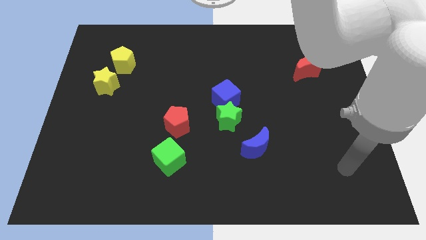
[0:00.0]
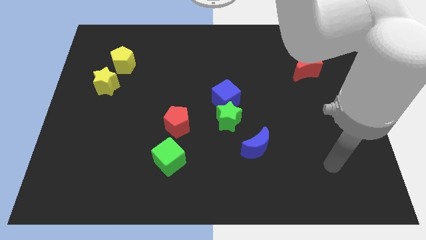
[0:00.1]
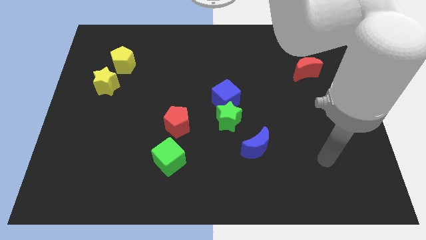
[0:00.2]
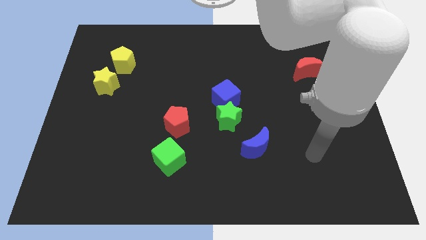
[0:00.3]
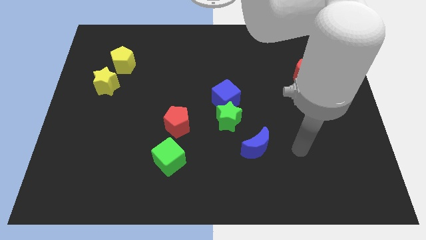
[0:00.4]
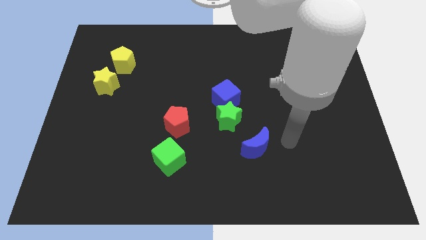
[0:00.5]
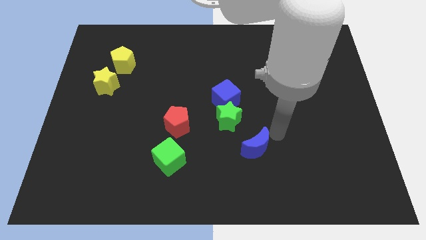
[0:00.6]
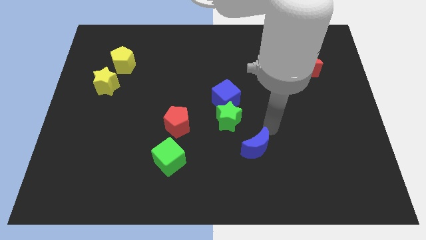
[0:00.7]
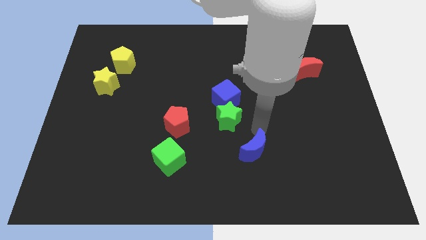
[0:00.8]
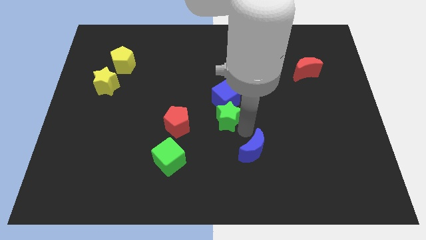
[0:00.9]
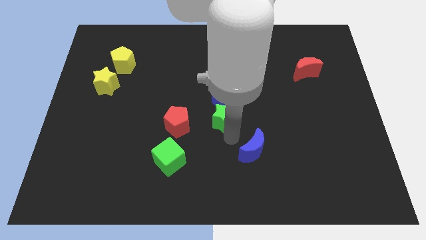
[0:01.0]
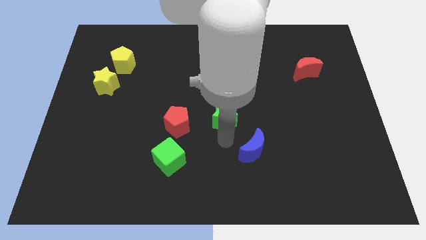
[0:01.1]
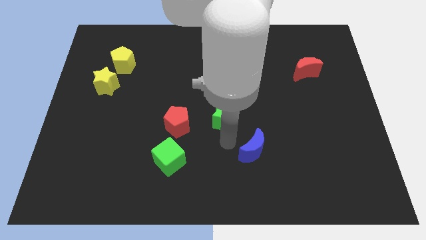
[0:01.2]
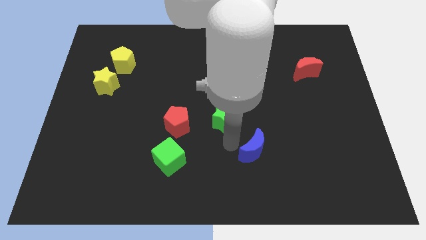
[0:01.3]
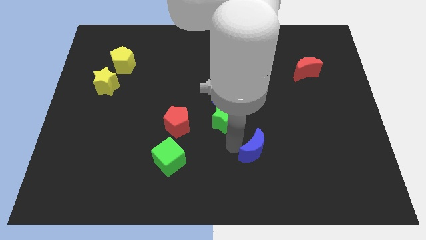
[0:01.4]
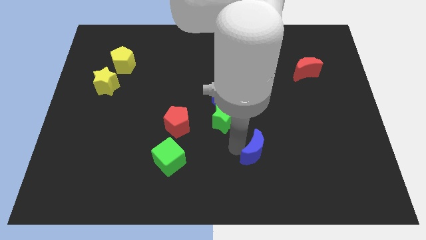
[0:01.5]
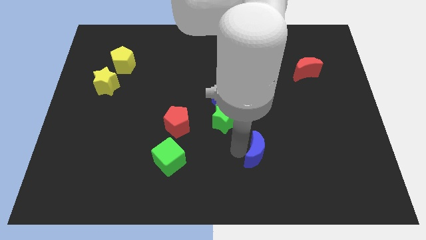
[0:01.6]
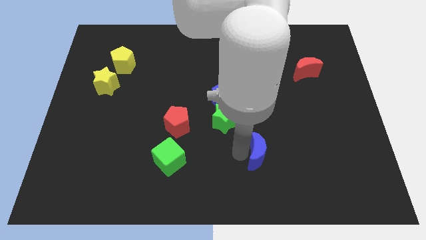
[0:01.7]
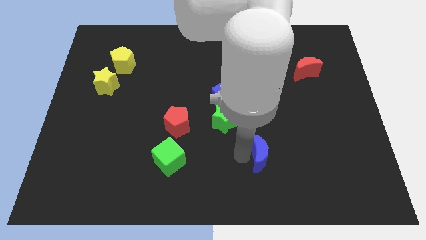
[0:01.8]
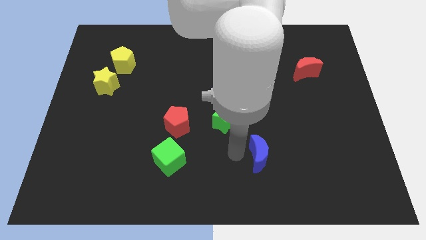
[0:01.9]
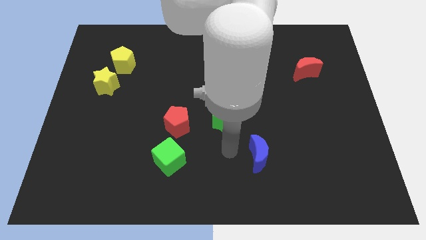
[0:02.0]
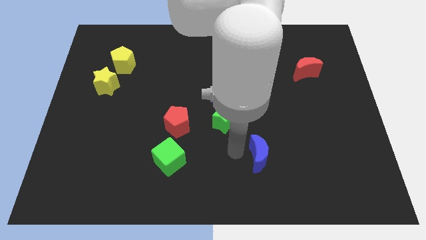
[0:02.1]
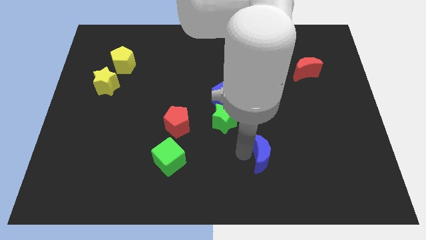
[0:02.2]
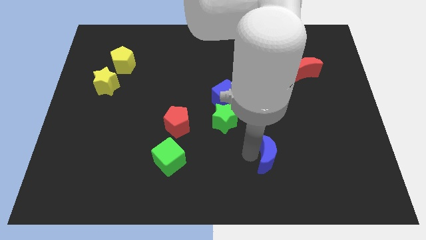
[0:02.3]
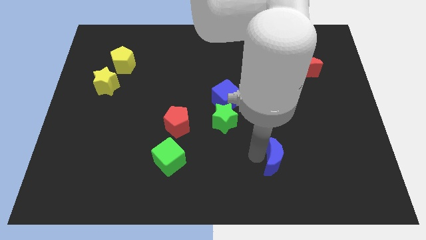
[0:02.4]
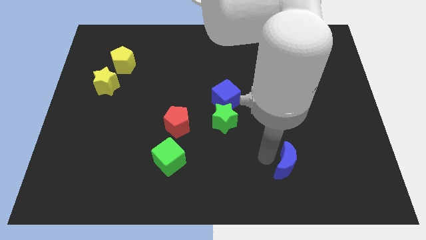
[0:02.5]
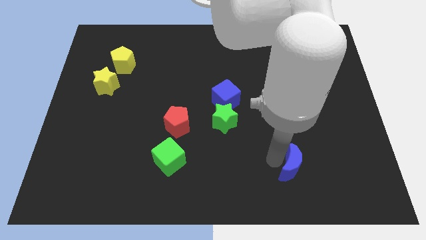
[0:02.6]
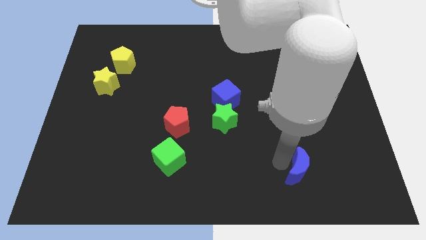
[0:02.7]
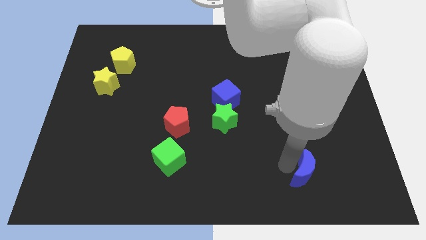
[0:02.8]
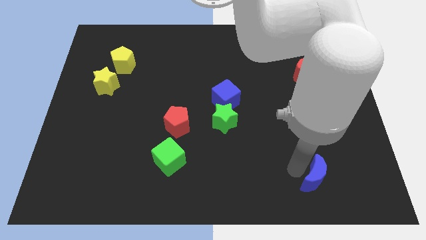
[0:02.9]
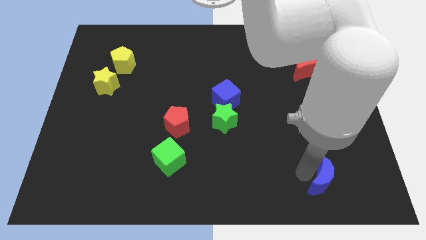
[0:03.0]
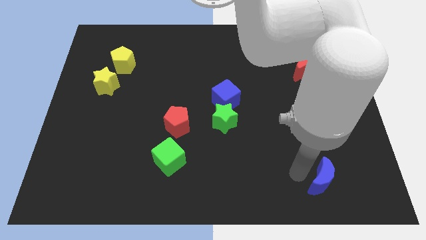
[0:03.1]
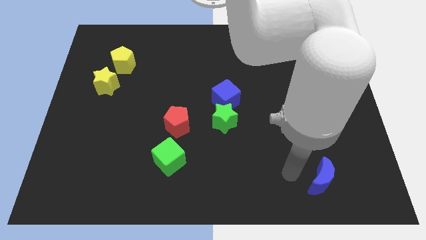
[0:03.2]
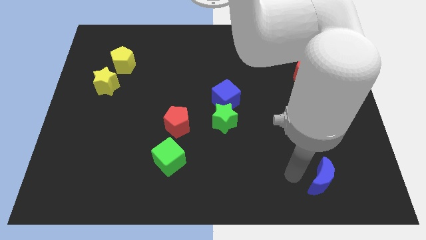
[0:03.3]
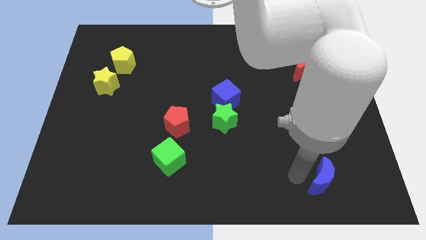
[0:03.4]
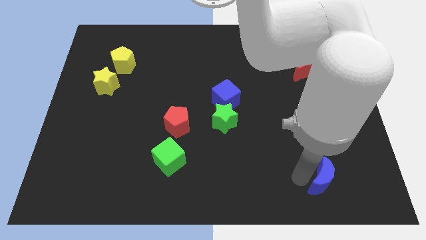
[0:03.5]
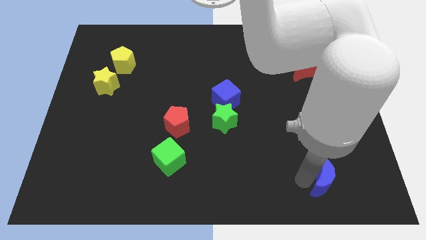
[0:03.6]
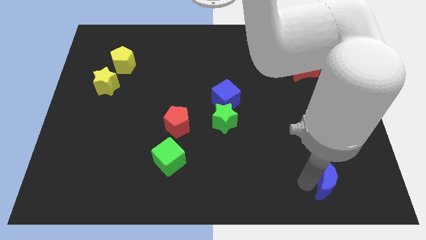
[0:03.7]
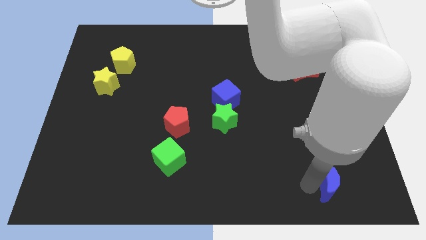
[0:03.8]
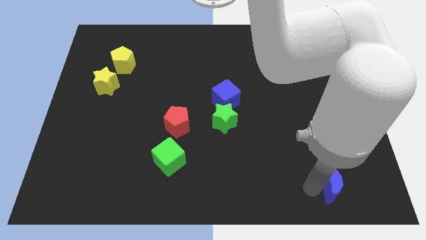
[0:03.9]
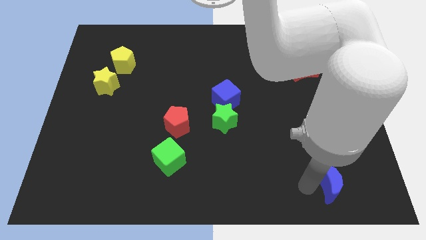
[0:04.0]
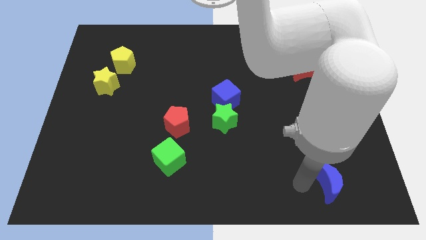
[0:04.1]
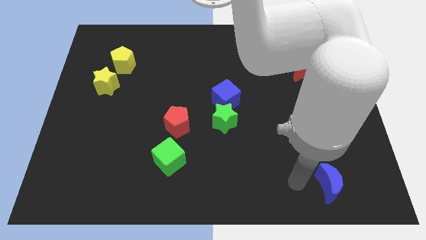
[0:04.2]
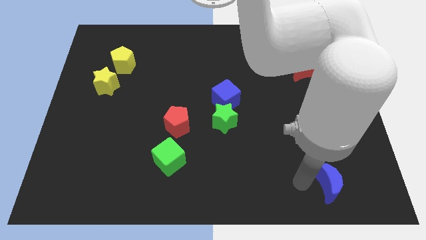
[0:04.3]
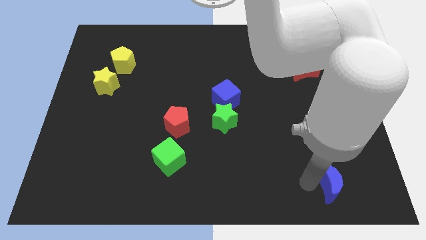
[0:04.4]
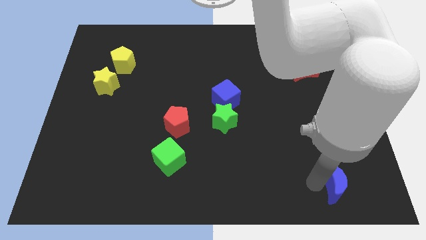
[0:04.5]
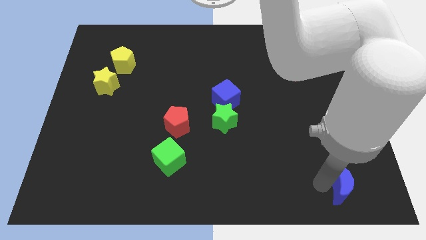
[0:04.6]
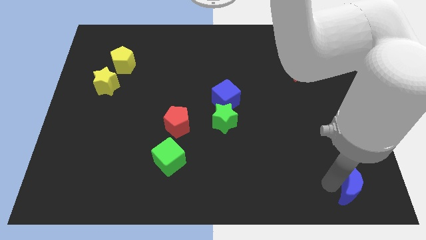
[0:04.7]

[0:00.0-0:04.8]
put the blue moon to the bottom right of the board

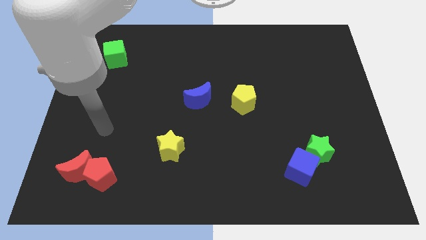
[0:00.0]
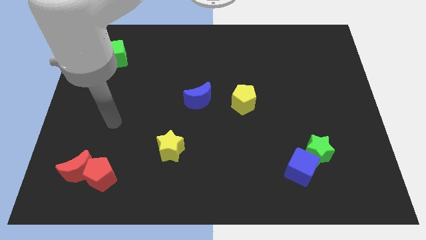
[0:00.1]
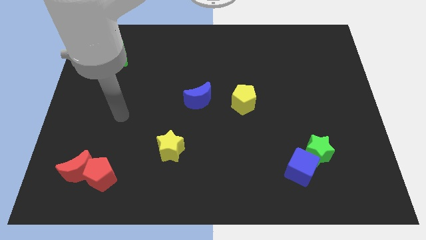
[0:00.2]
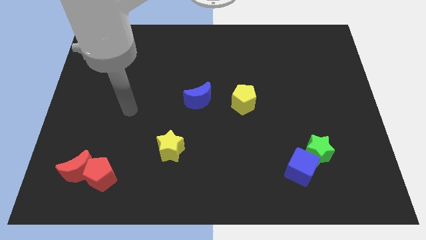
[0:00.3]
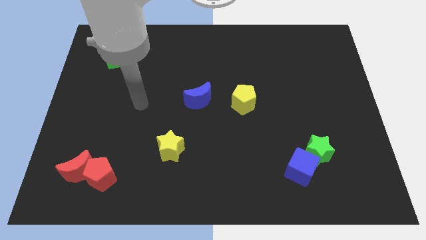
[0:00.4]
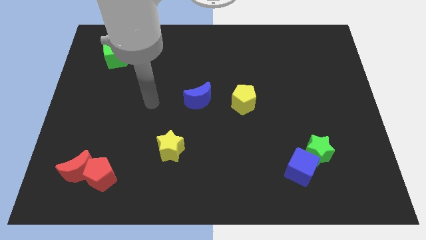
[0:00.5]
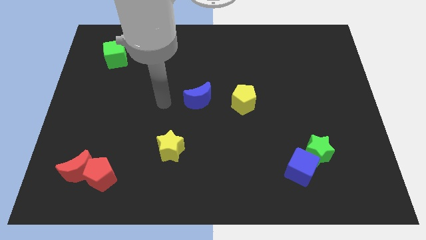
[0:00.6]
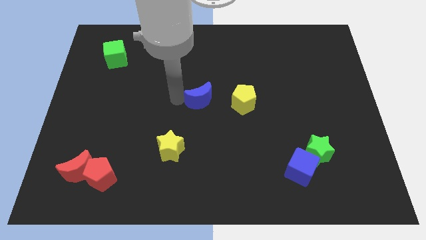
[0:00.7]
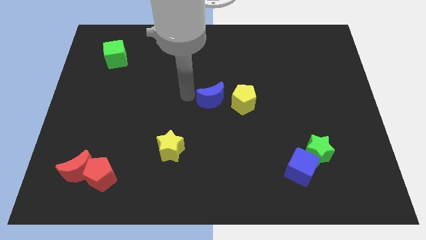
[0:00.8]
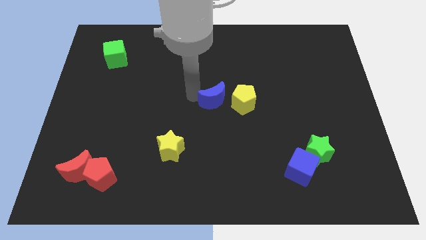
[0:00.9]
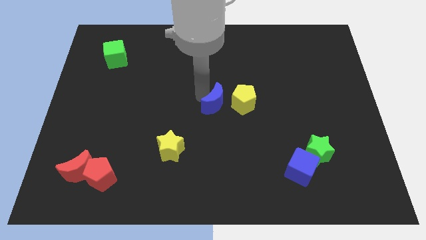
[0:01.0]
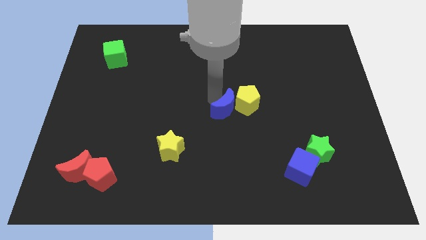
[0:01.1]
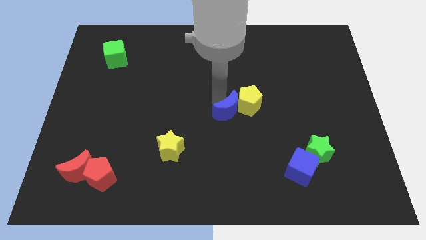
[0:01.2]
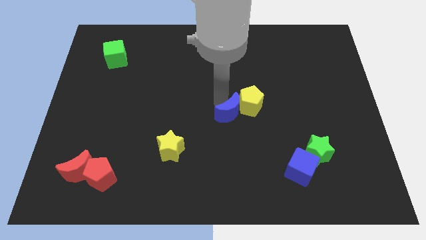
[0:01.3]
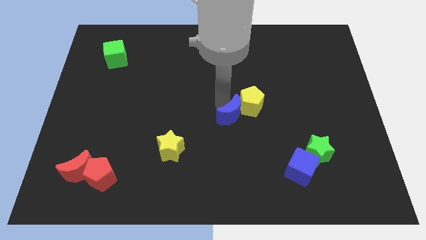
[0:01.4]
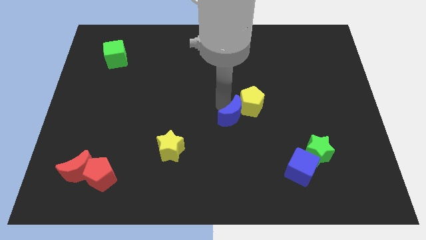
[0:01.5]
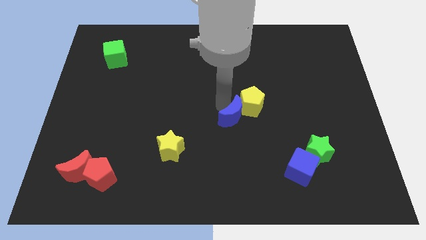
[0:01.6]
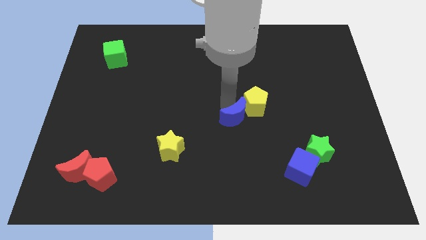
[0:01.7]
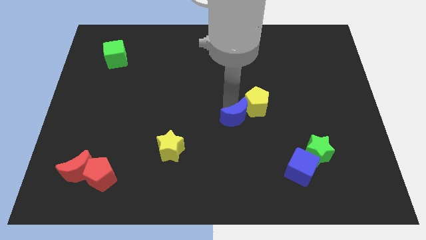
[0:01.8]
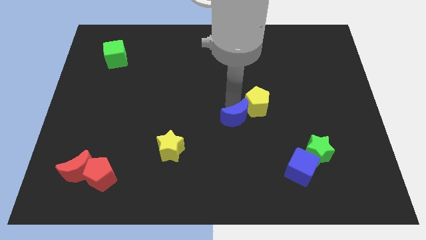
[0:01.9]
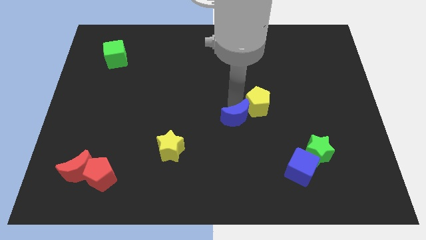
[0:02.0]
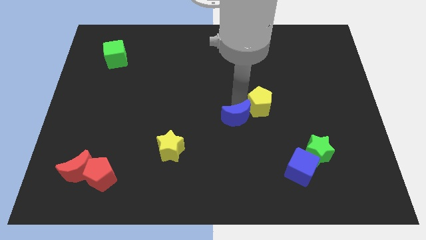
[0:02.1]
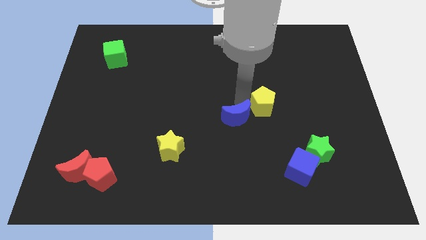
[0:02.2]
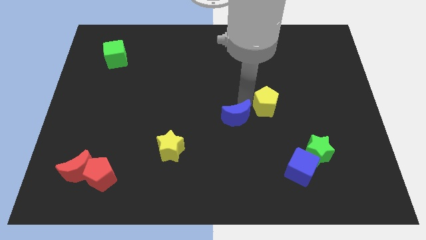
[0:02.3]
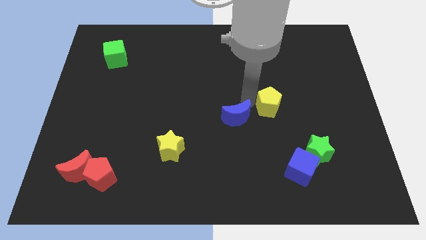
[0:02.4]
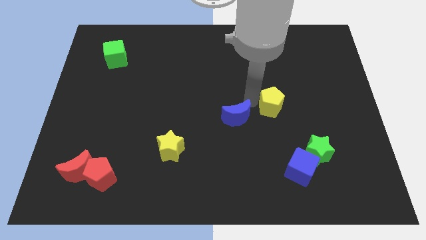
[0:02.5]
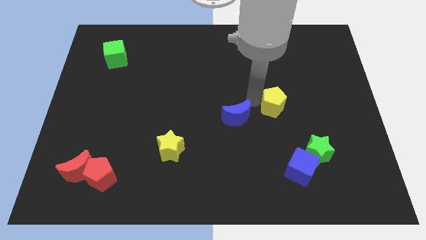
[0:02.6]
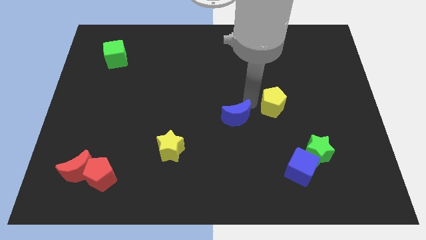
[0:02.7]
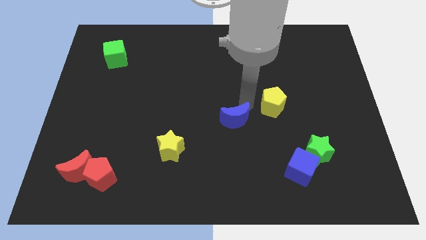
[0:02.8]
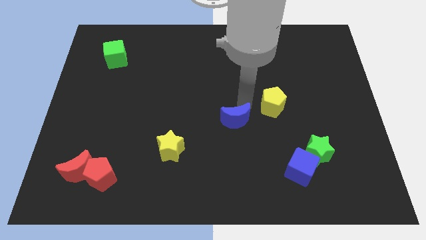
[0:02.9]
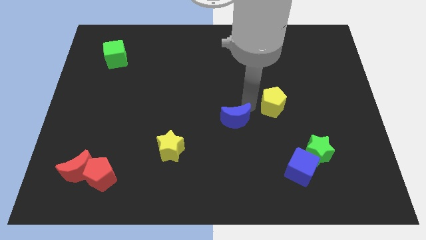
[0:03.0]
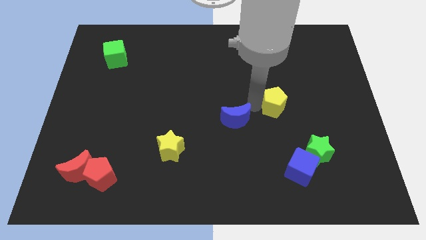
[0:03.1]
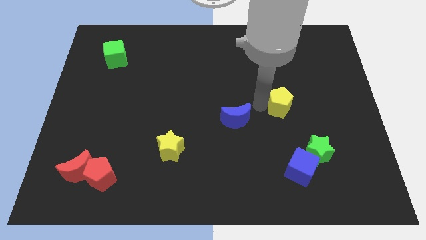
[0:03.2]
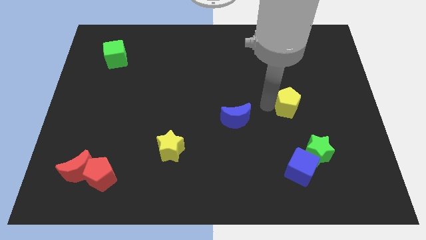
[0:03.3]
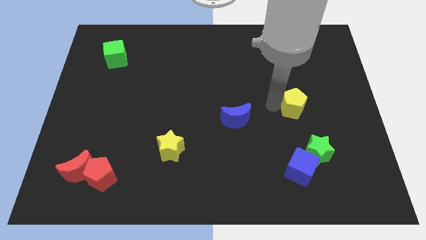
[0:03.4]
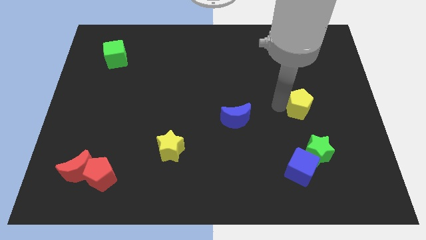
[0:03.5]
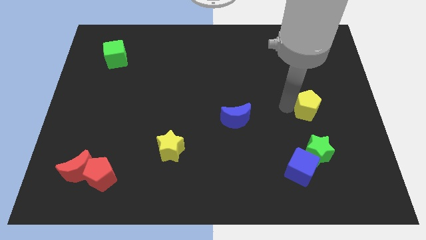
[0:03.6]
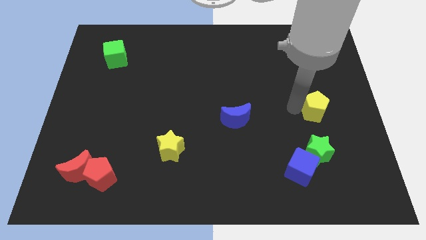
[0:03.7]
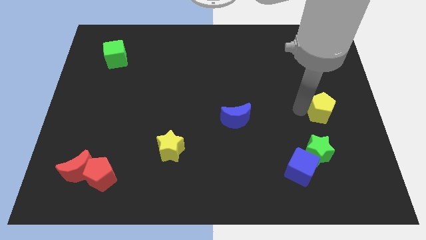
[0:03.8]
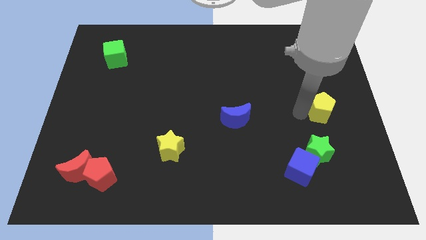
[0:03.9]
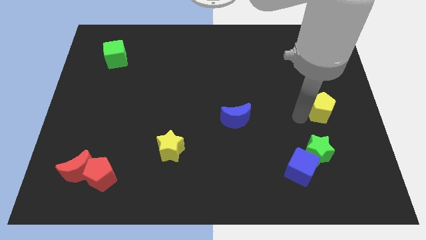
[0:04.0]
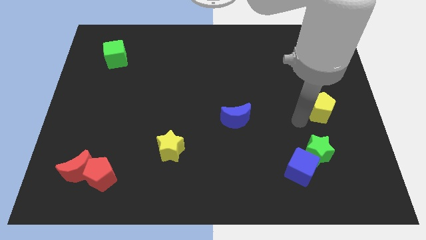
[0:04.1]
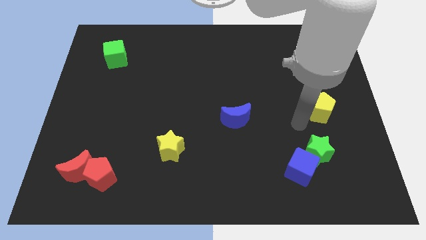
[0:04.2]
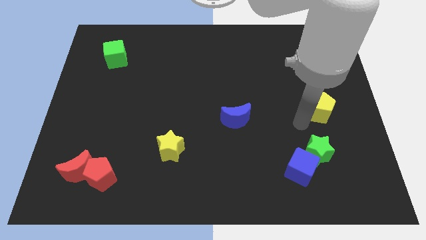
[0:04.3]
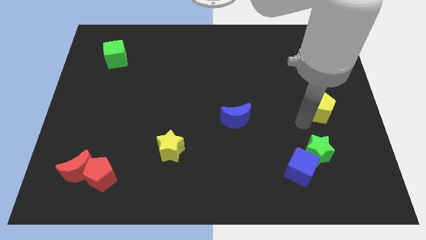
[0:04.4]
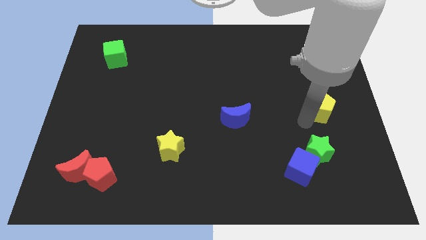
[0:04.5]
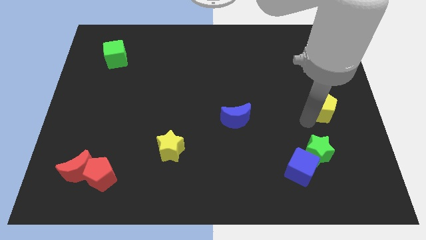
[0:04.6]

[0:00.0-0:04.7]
move the yellow pentagon to the center right
